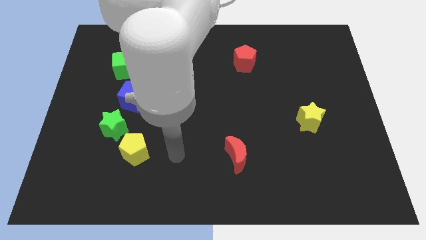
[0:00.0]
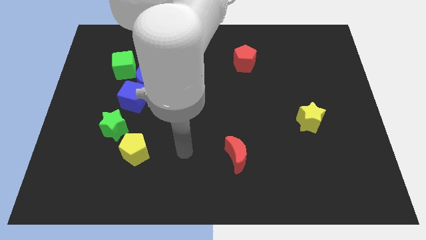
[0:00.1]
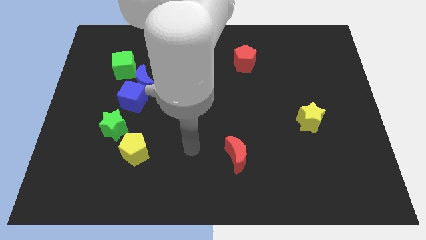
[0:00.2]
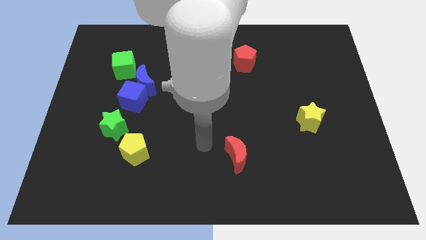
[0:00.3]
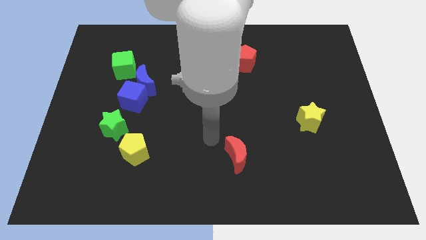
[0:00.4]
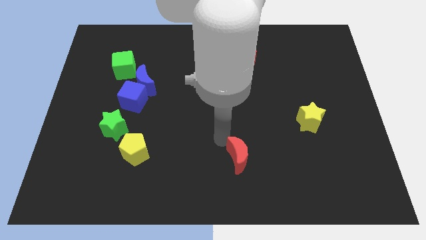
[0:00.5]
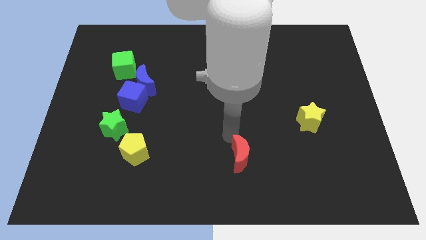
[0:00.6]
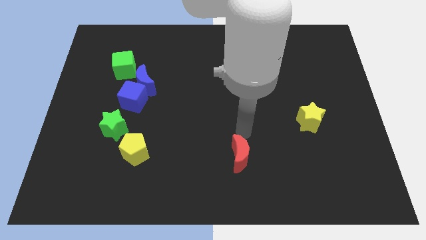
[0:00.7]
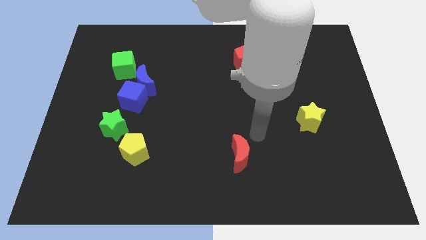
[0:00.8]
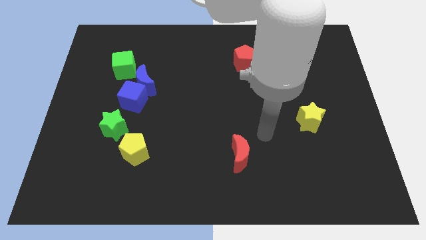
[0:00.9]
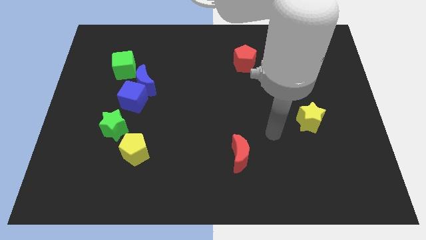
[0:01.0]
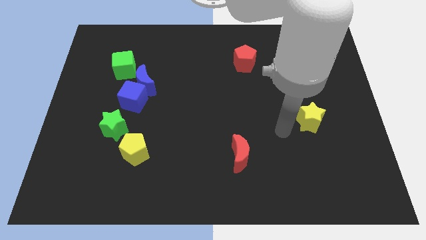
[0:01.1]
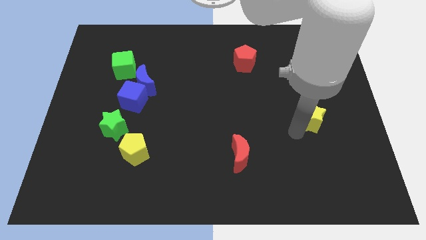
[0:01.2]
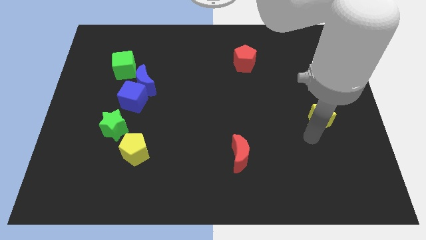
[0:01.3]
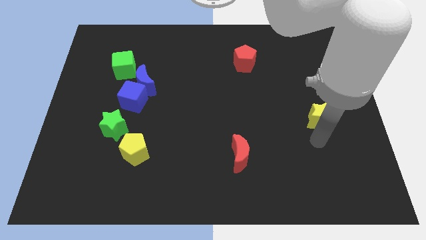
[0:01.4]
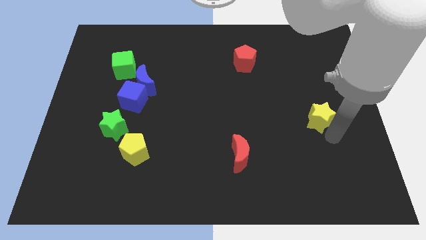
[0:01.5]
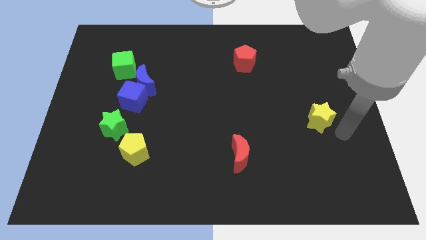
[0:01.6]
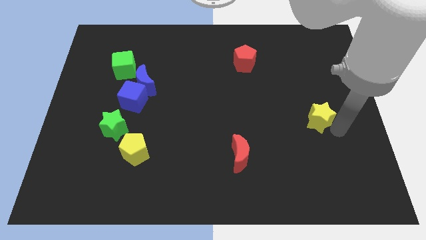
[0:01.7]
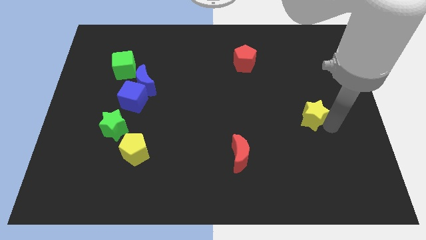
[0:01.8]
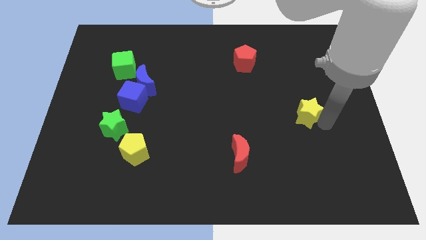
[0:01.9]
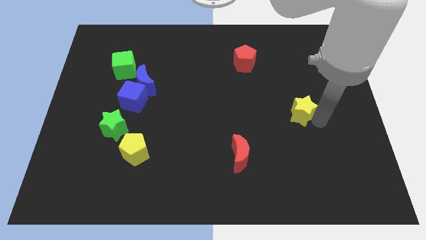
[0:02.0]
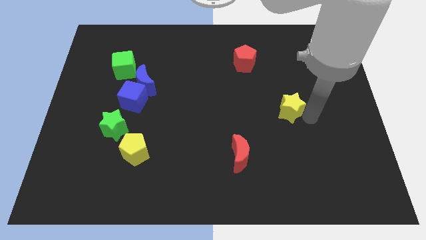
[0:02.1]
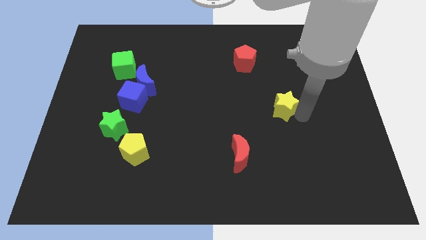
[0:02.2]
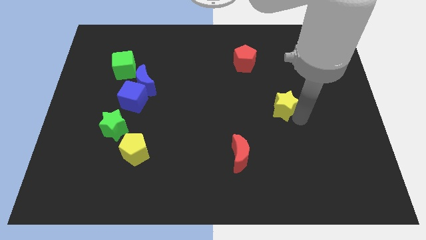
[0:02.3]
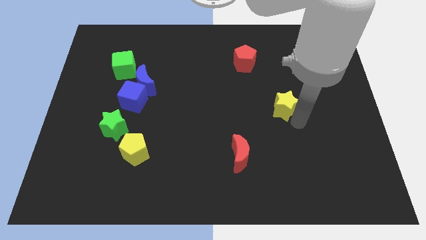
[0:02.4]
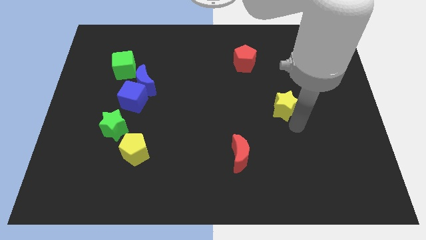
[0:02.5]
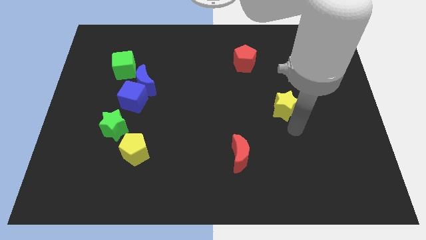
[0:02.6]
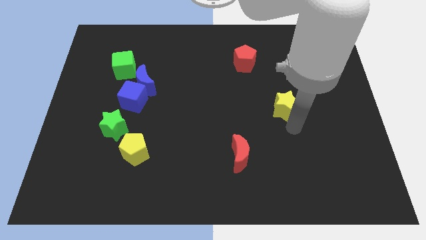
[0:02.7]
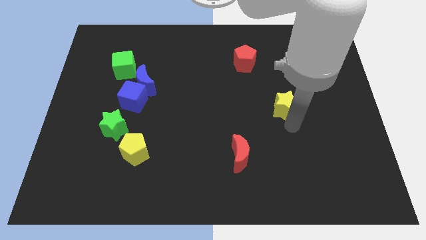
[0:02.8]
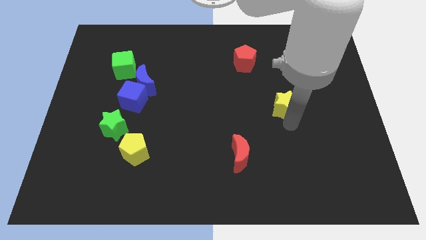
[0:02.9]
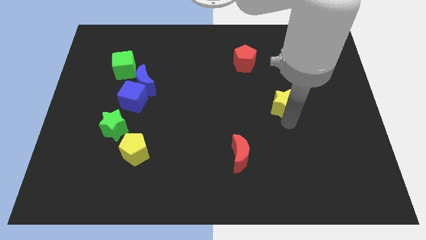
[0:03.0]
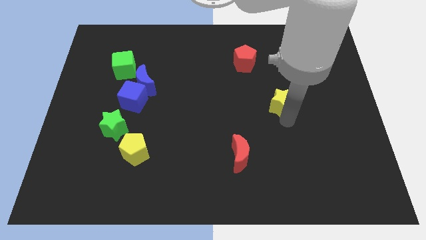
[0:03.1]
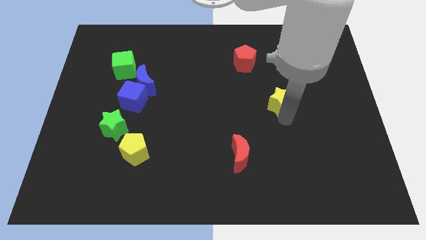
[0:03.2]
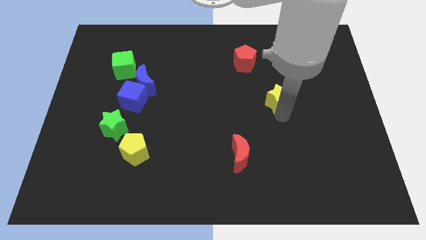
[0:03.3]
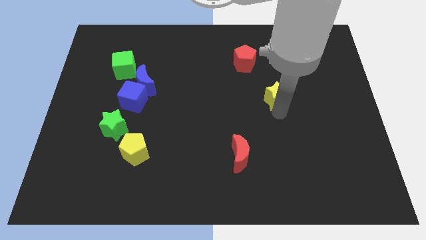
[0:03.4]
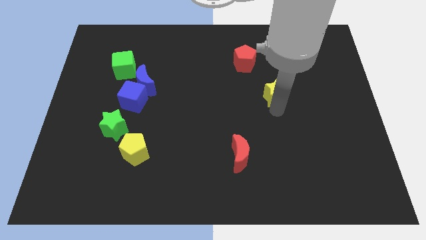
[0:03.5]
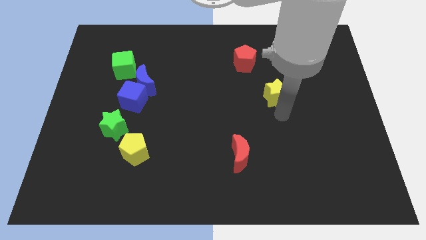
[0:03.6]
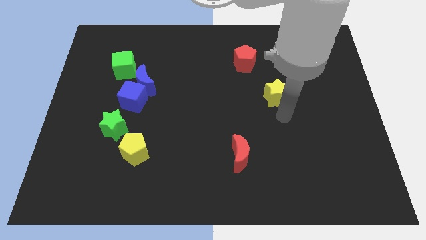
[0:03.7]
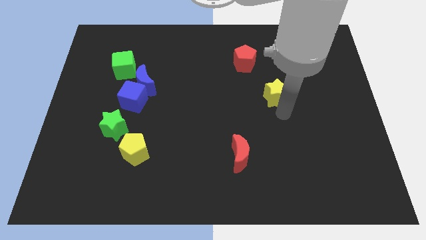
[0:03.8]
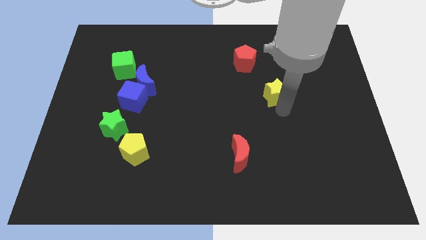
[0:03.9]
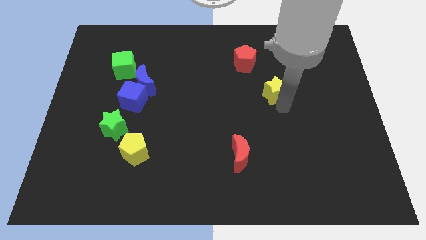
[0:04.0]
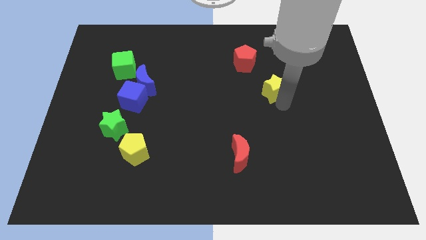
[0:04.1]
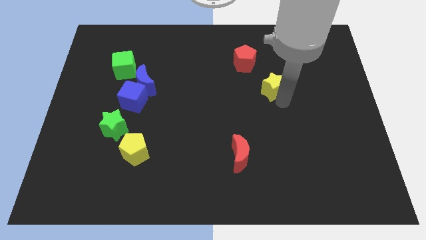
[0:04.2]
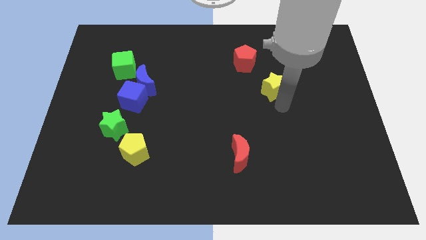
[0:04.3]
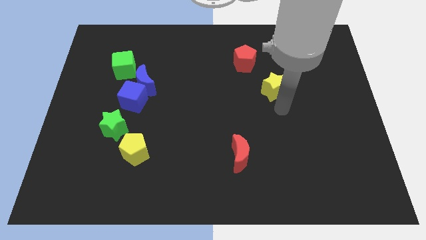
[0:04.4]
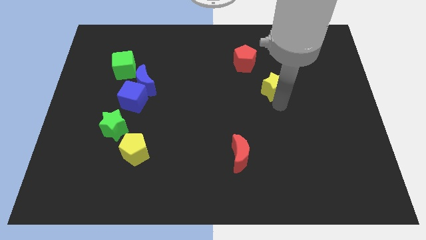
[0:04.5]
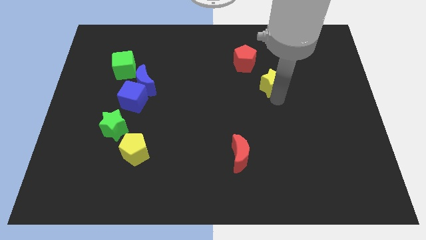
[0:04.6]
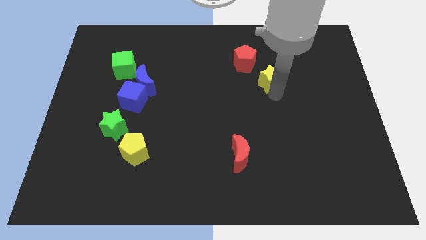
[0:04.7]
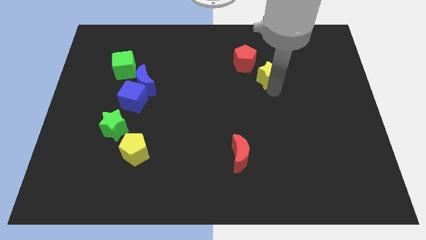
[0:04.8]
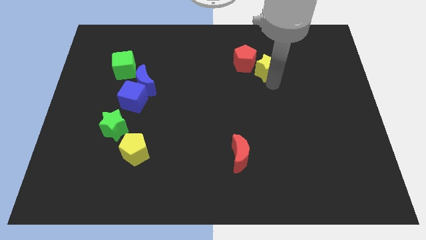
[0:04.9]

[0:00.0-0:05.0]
slide the yellow star towards the red pentagon

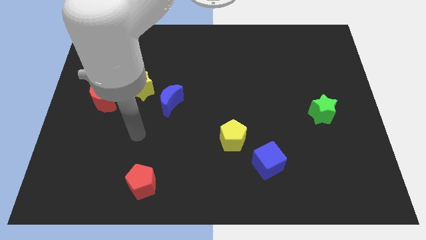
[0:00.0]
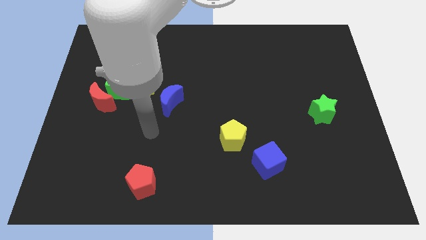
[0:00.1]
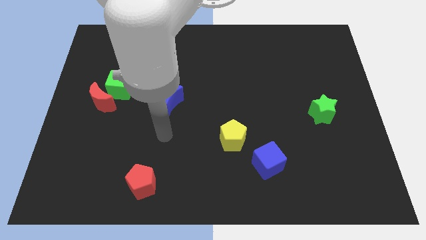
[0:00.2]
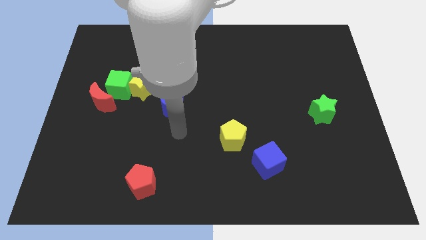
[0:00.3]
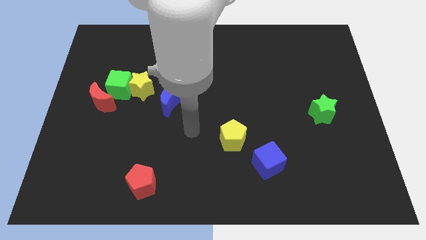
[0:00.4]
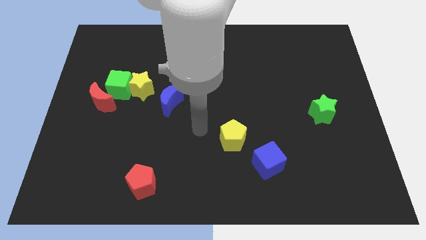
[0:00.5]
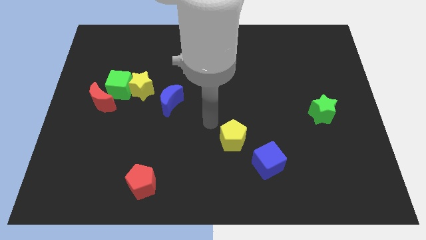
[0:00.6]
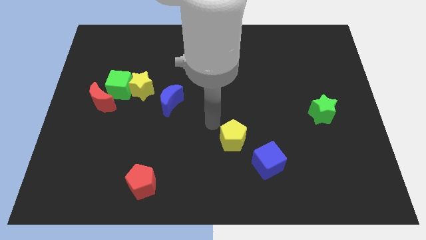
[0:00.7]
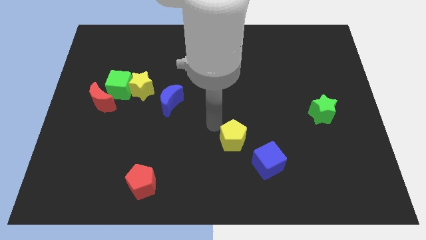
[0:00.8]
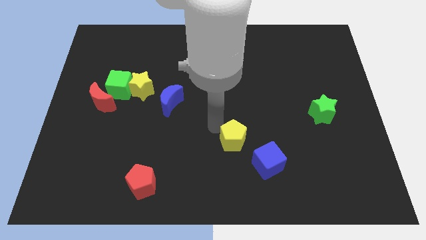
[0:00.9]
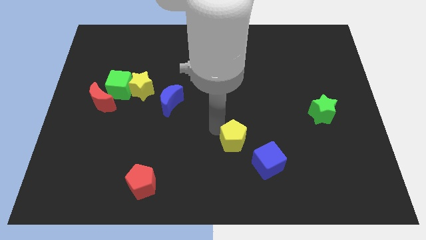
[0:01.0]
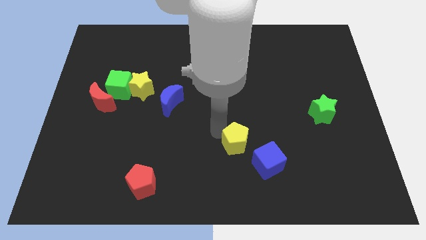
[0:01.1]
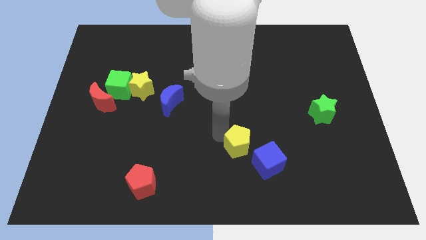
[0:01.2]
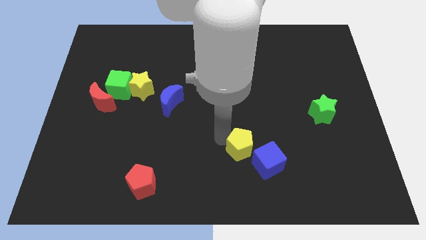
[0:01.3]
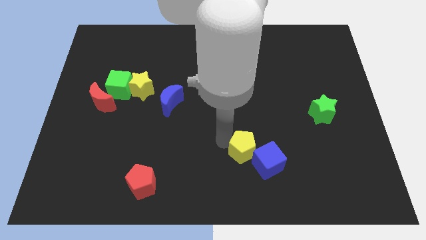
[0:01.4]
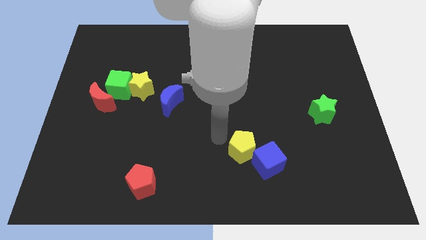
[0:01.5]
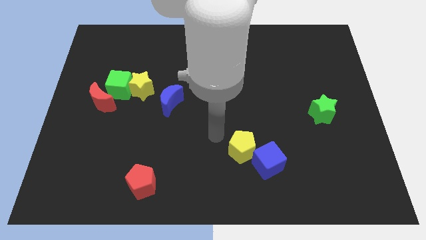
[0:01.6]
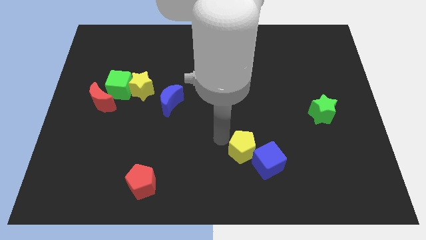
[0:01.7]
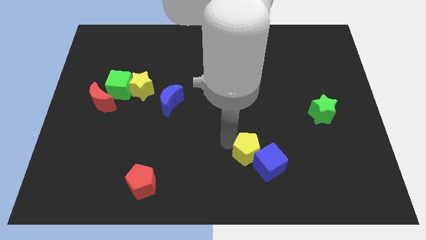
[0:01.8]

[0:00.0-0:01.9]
push the yellow pentagon next to the blue cube

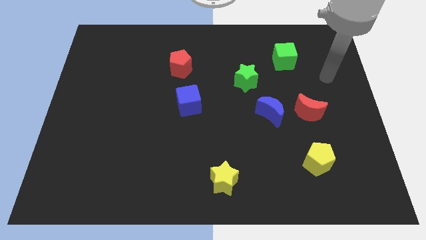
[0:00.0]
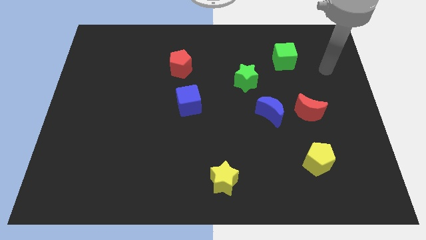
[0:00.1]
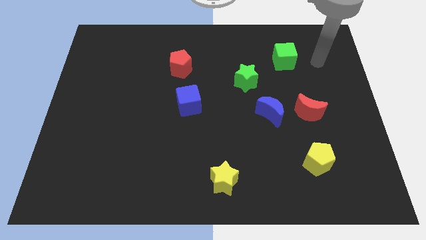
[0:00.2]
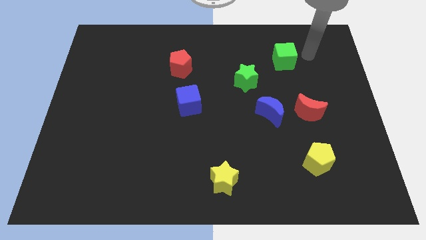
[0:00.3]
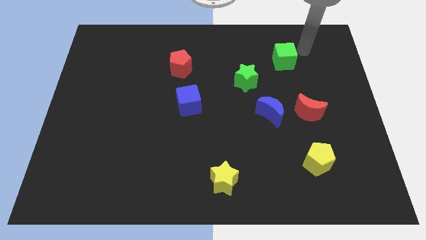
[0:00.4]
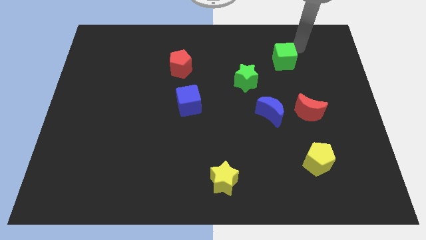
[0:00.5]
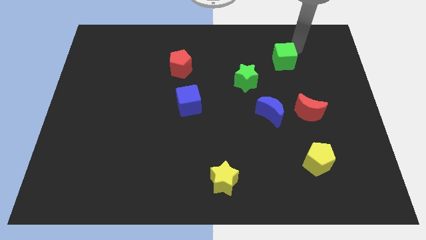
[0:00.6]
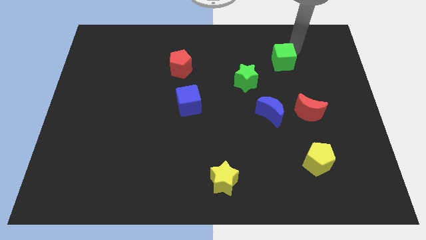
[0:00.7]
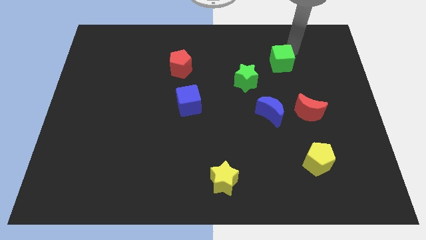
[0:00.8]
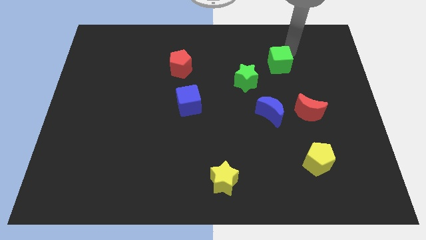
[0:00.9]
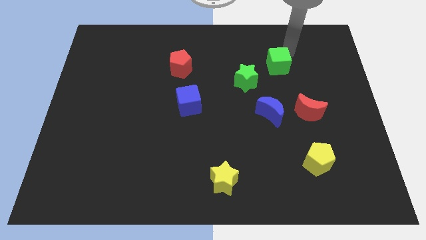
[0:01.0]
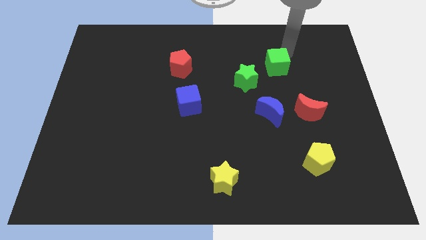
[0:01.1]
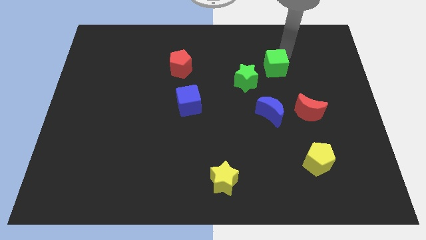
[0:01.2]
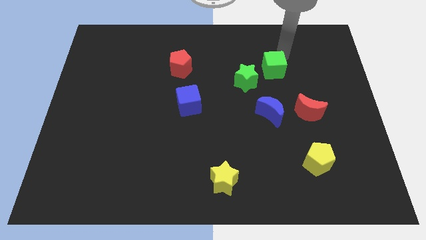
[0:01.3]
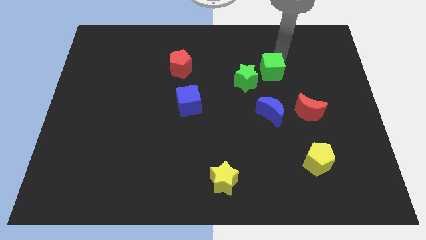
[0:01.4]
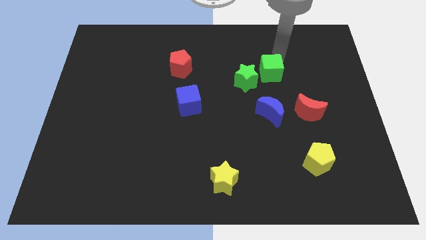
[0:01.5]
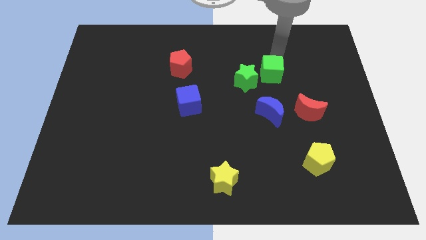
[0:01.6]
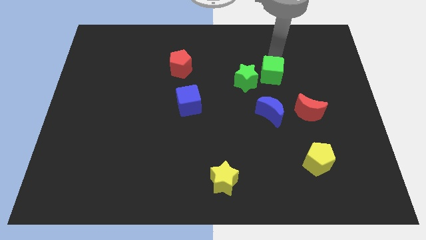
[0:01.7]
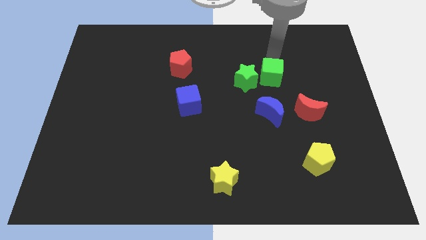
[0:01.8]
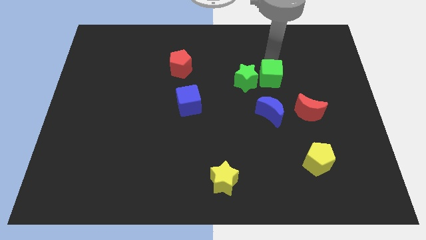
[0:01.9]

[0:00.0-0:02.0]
push the green cube to the green star
